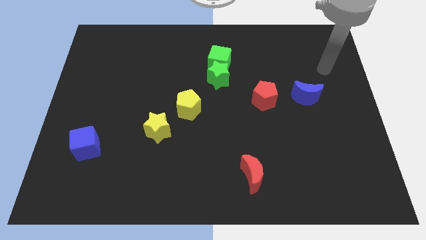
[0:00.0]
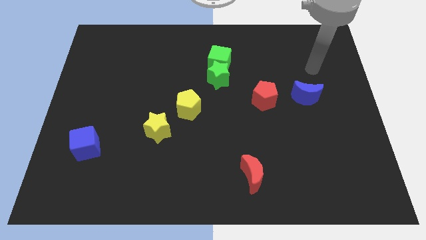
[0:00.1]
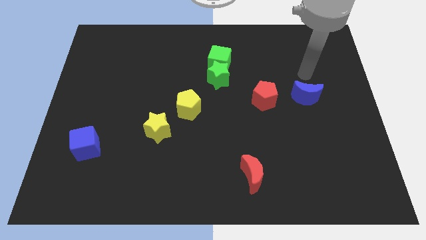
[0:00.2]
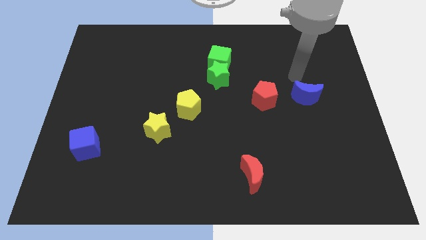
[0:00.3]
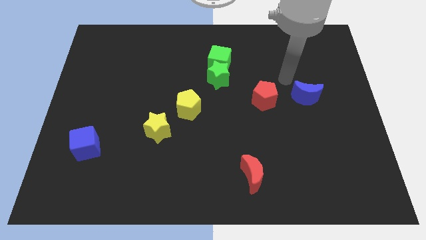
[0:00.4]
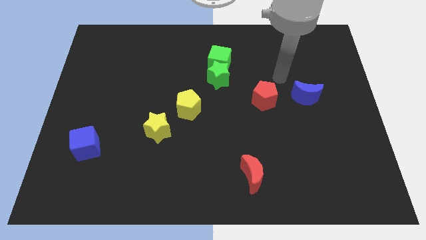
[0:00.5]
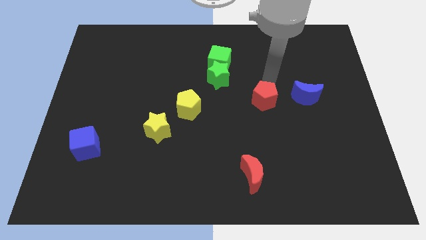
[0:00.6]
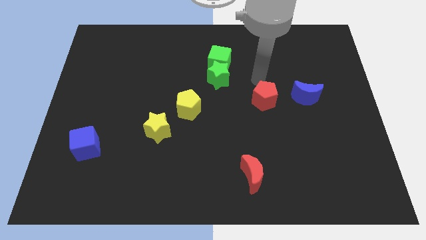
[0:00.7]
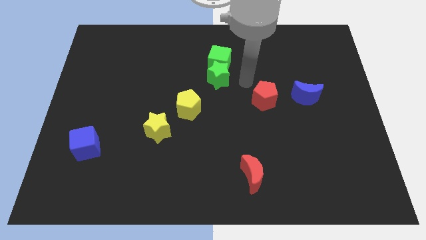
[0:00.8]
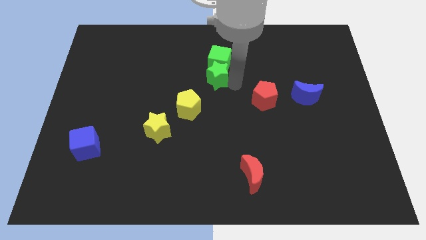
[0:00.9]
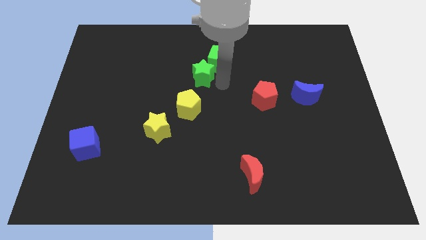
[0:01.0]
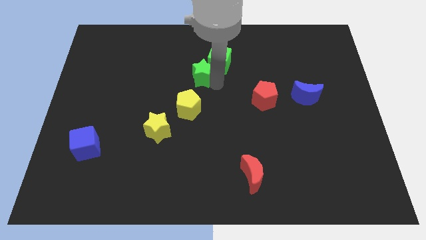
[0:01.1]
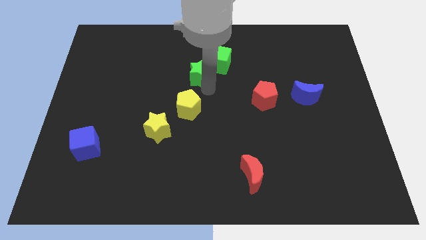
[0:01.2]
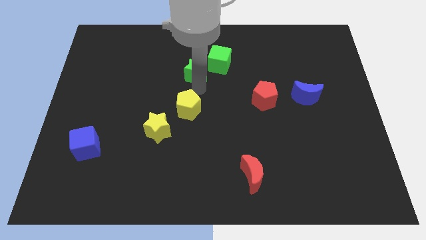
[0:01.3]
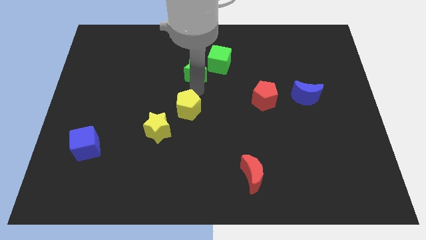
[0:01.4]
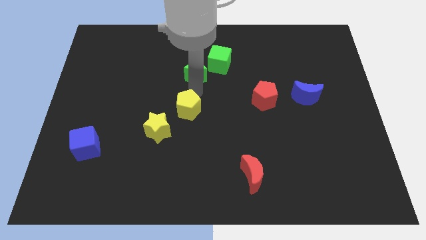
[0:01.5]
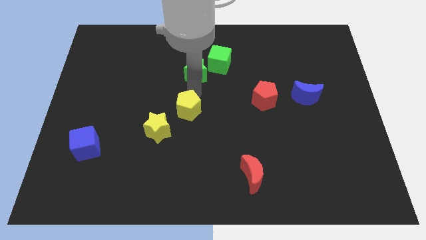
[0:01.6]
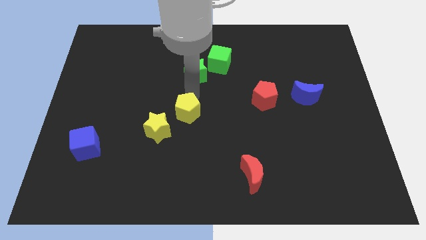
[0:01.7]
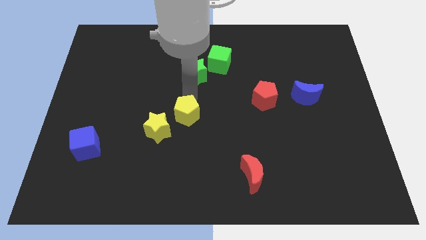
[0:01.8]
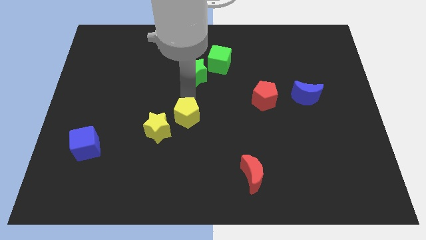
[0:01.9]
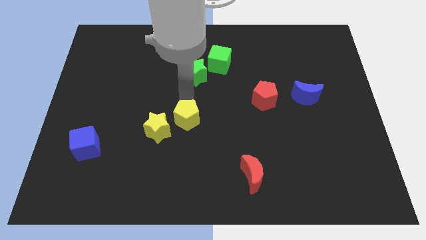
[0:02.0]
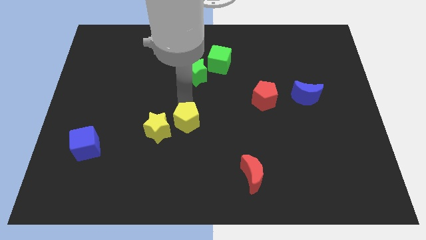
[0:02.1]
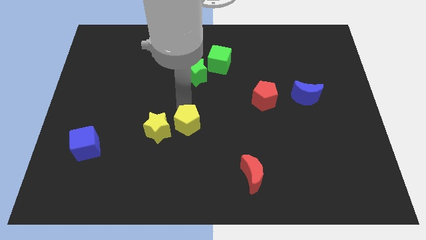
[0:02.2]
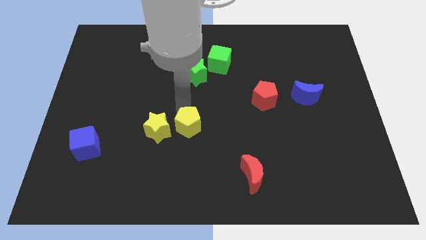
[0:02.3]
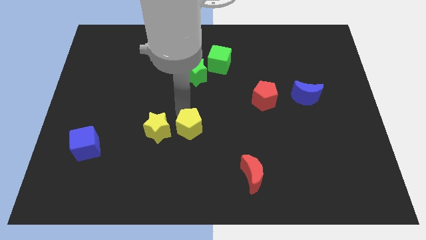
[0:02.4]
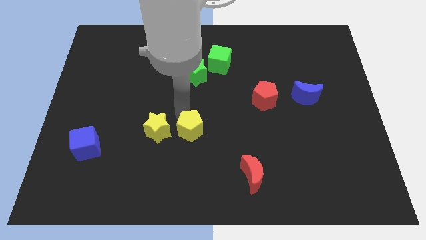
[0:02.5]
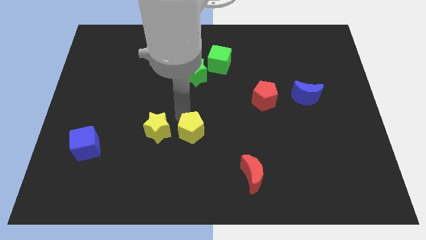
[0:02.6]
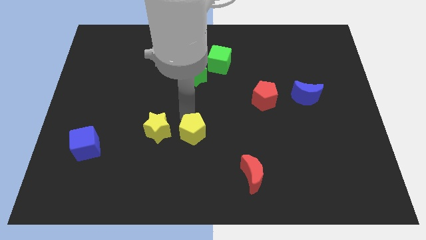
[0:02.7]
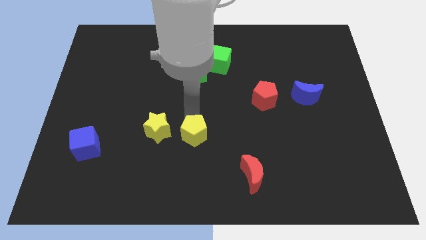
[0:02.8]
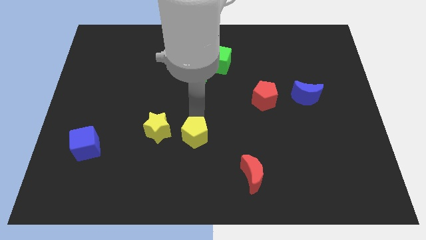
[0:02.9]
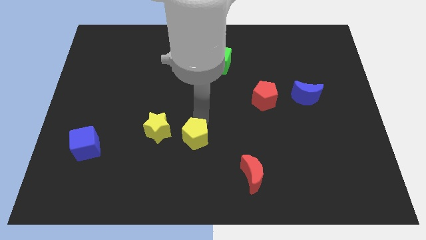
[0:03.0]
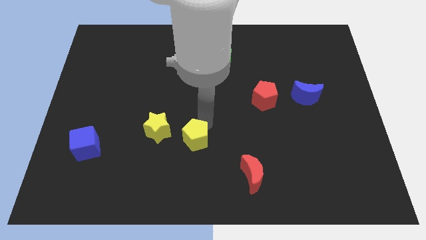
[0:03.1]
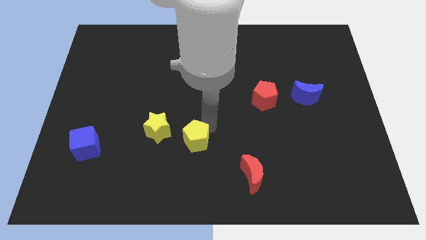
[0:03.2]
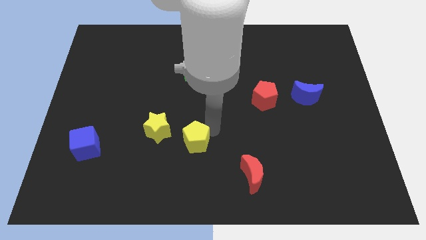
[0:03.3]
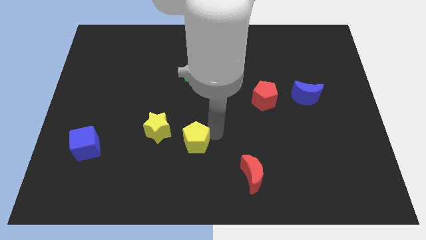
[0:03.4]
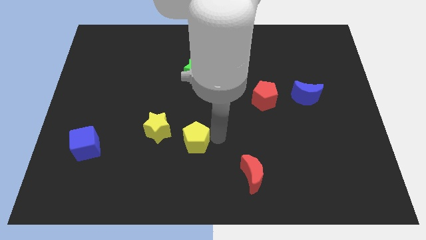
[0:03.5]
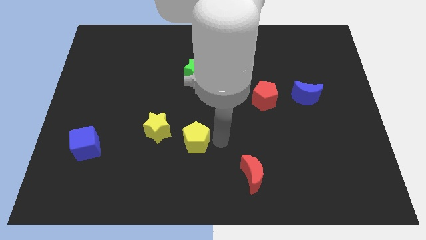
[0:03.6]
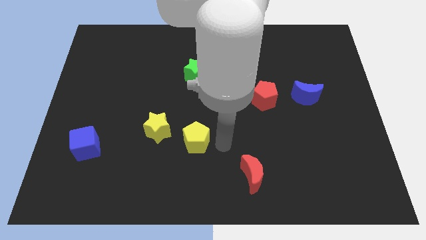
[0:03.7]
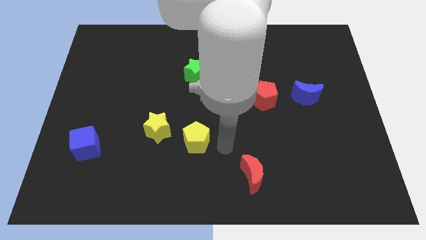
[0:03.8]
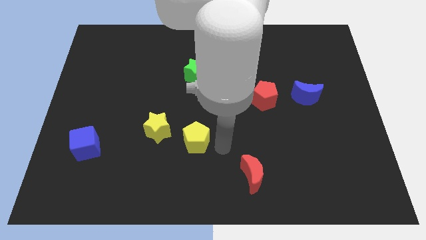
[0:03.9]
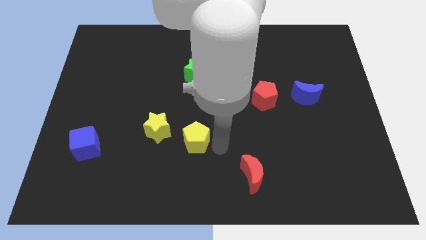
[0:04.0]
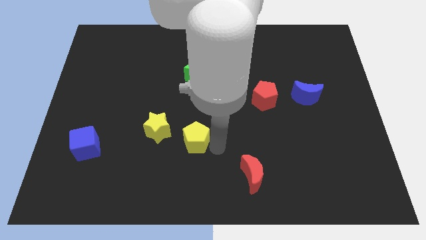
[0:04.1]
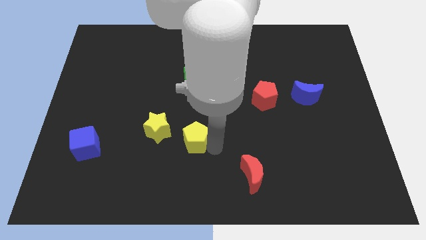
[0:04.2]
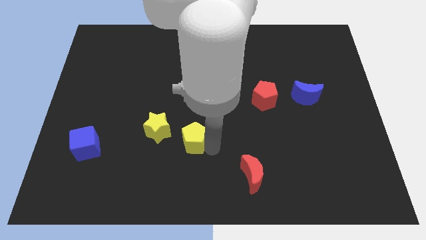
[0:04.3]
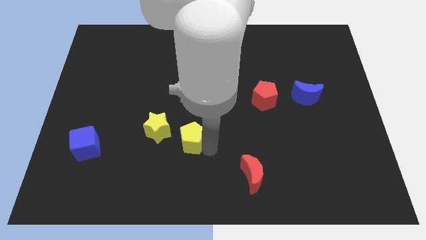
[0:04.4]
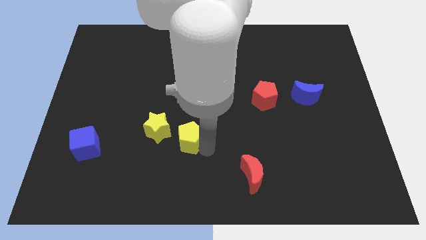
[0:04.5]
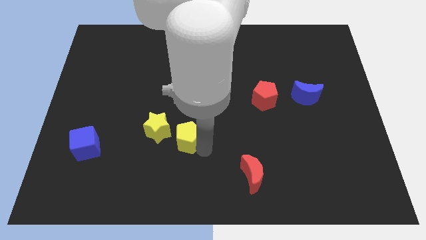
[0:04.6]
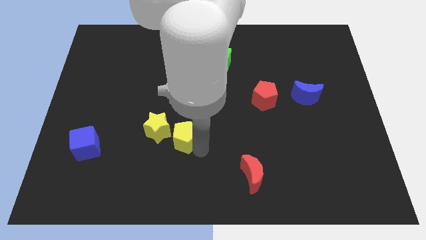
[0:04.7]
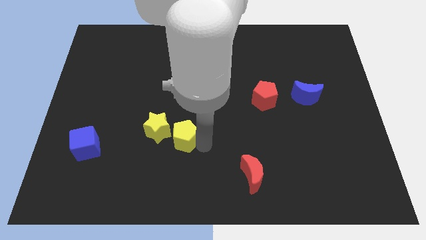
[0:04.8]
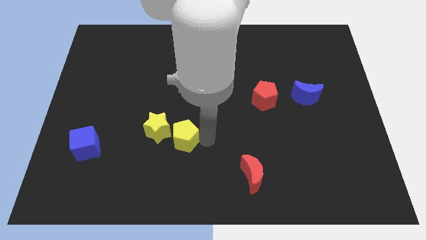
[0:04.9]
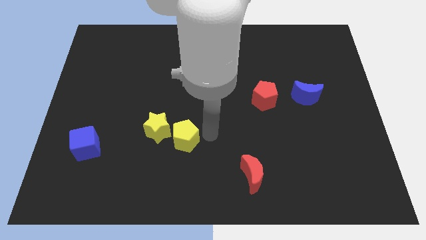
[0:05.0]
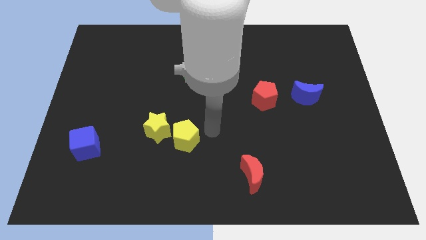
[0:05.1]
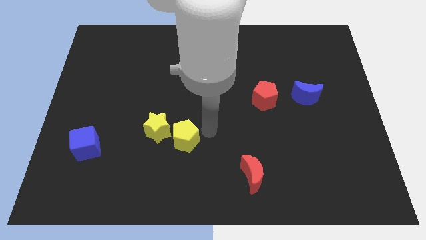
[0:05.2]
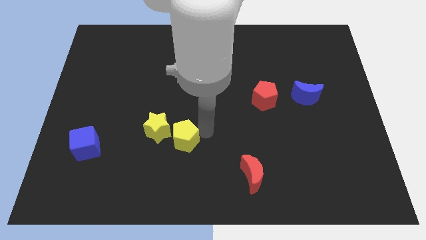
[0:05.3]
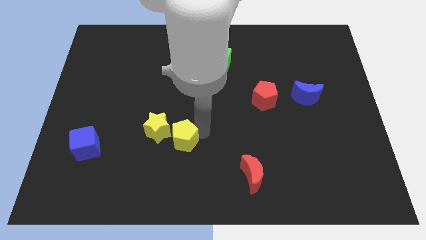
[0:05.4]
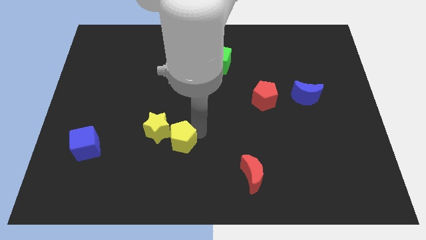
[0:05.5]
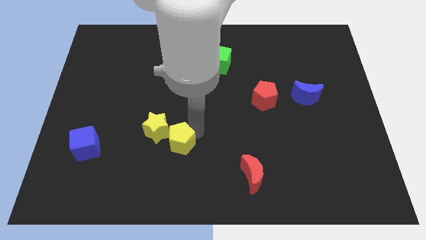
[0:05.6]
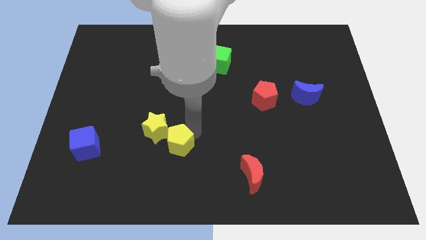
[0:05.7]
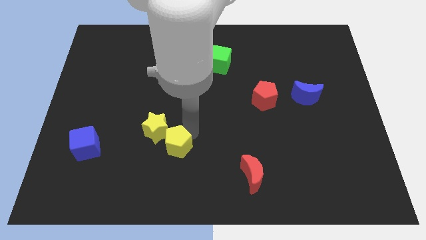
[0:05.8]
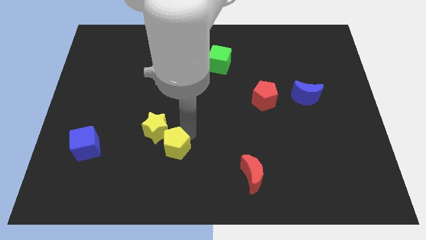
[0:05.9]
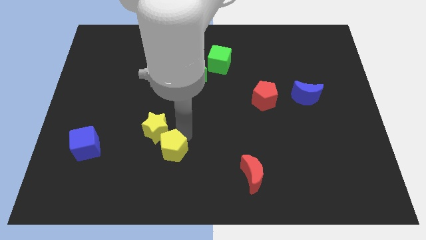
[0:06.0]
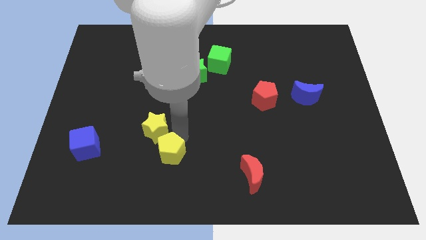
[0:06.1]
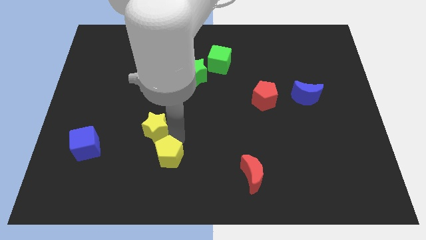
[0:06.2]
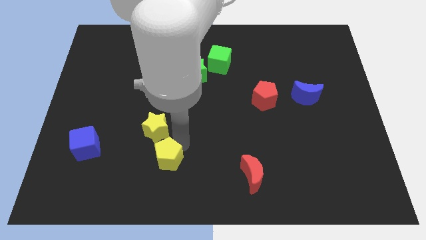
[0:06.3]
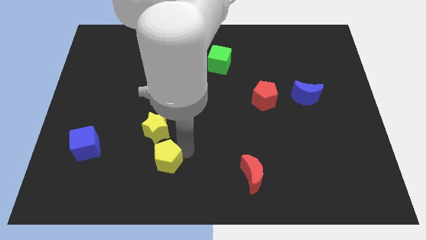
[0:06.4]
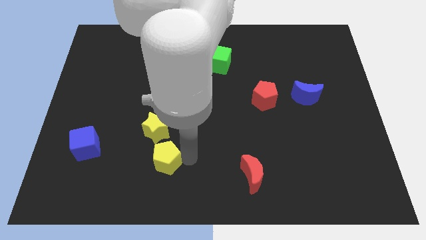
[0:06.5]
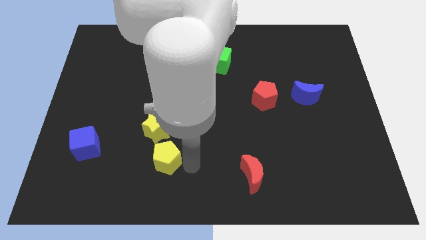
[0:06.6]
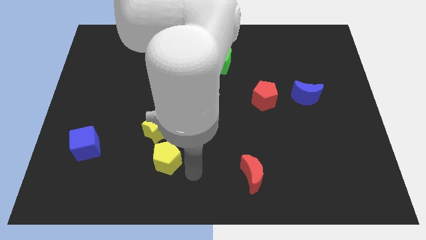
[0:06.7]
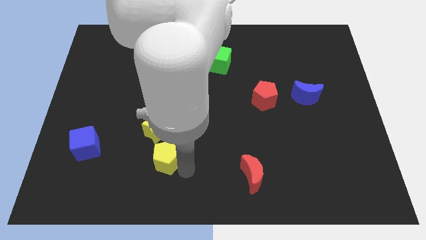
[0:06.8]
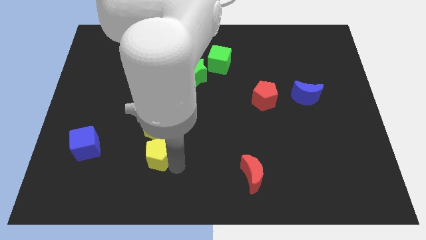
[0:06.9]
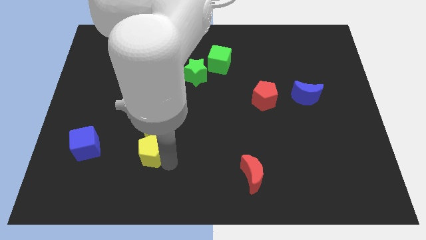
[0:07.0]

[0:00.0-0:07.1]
move the yellow pentagon just right of the blue cube
